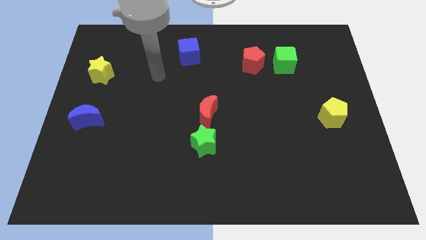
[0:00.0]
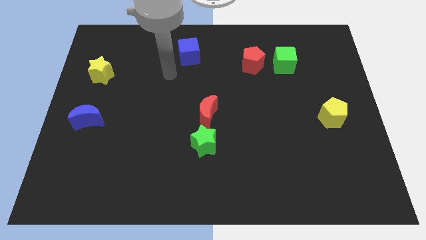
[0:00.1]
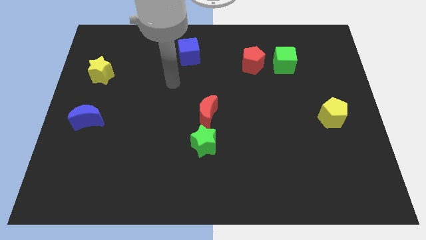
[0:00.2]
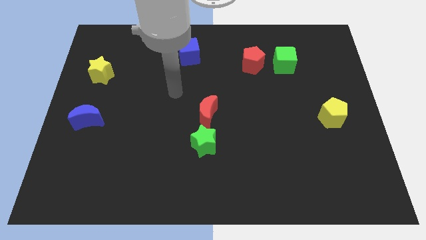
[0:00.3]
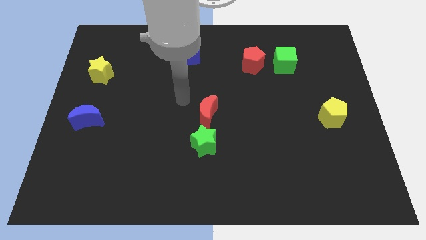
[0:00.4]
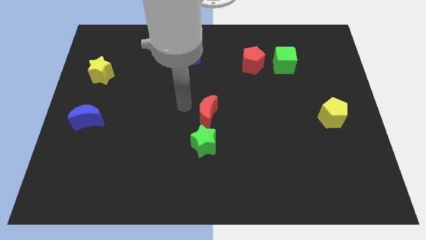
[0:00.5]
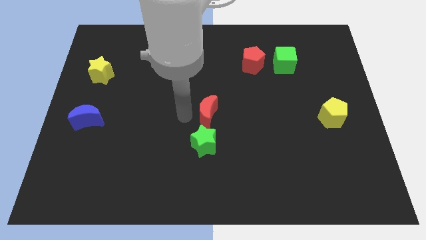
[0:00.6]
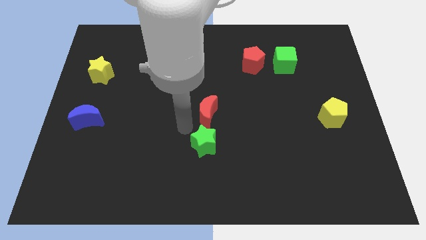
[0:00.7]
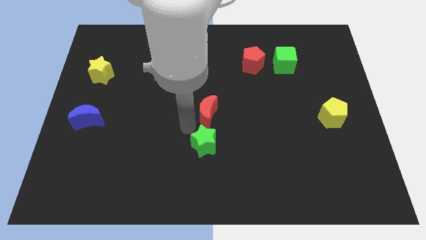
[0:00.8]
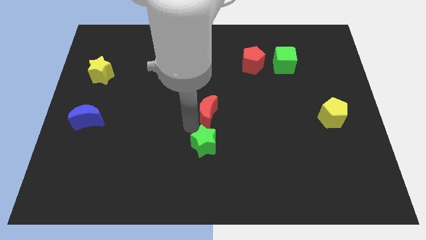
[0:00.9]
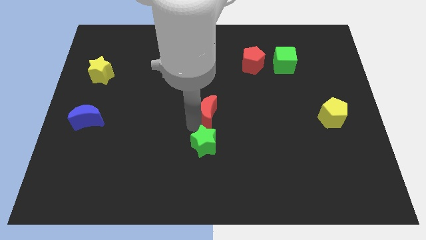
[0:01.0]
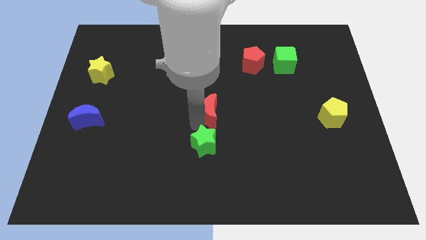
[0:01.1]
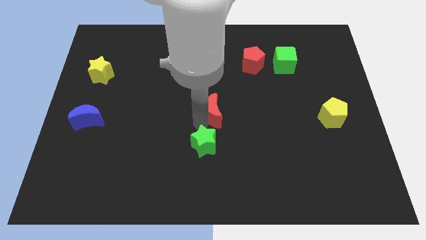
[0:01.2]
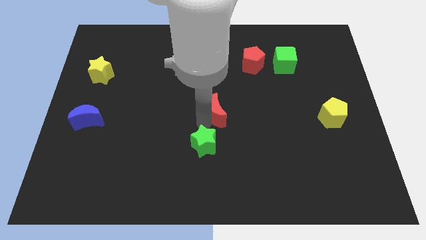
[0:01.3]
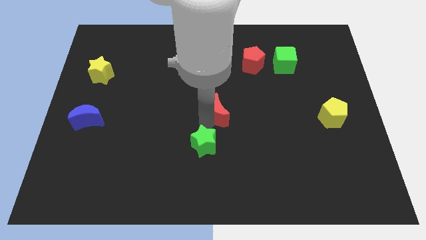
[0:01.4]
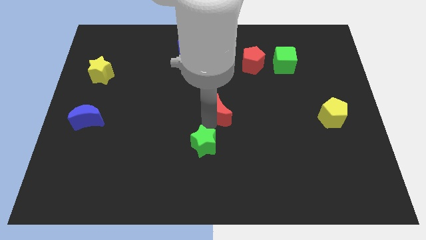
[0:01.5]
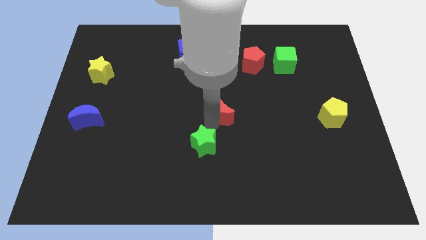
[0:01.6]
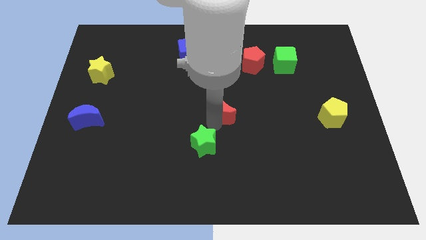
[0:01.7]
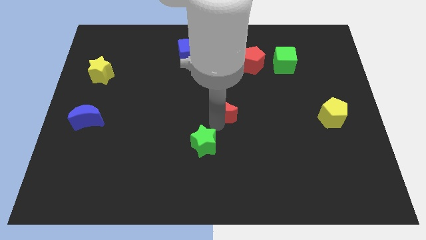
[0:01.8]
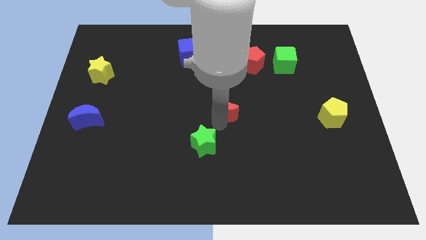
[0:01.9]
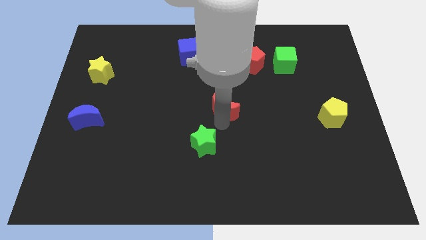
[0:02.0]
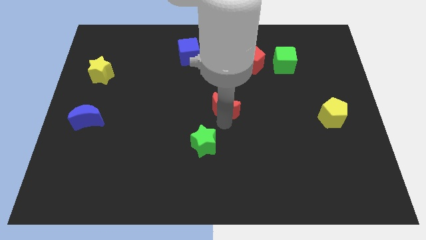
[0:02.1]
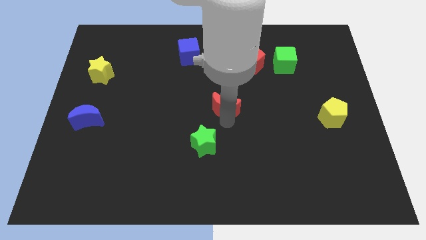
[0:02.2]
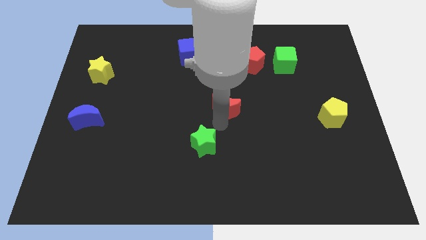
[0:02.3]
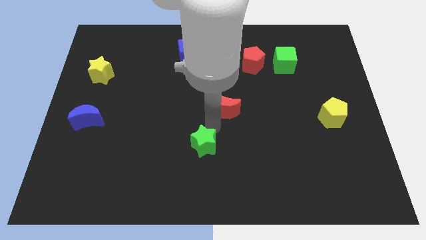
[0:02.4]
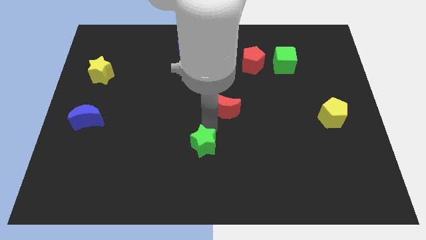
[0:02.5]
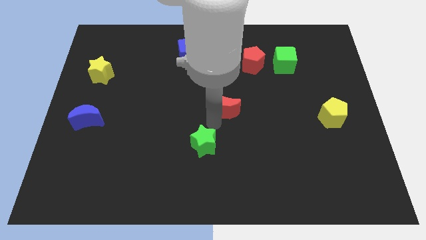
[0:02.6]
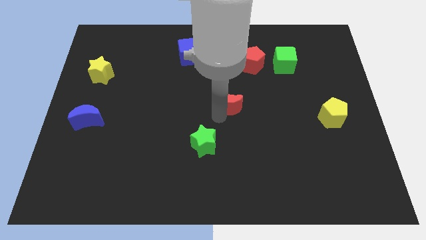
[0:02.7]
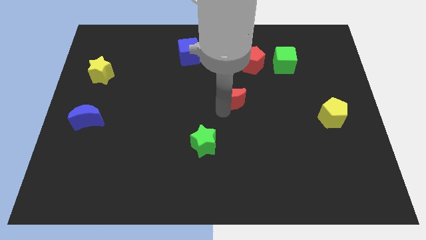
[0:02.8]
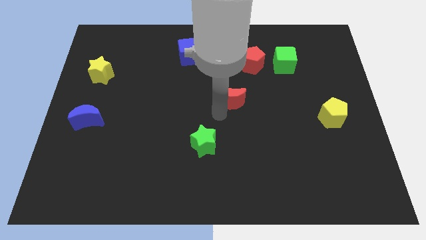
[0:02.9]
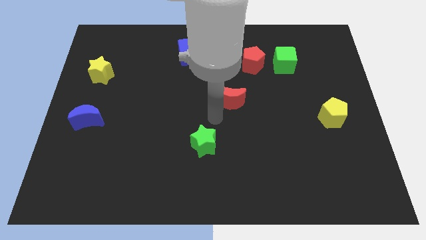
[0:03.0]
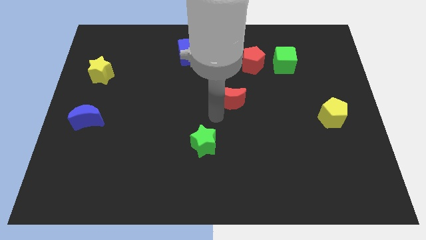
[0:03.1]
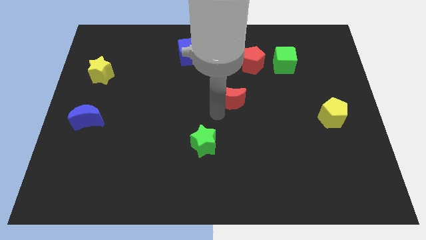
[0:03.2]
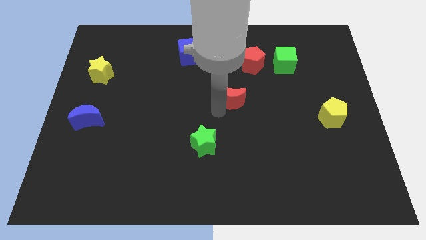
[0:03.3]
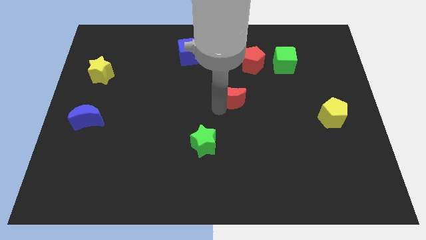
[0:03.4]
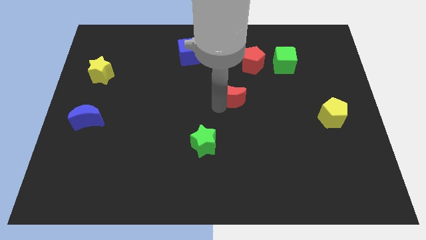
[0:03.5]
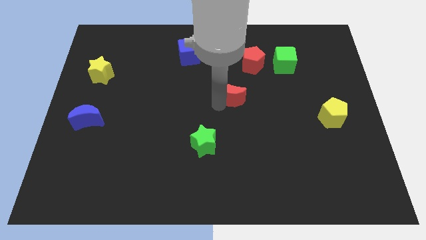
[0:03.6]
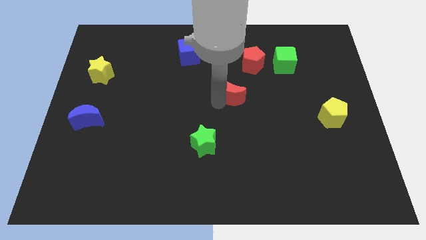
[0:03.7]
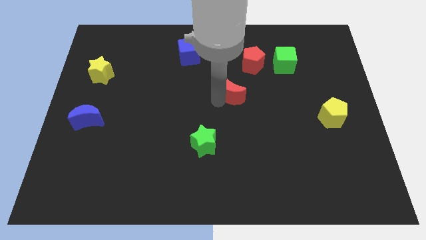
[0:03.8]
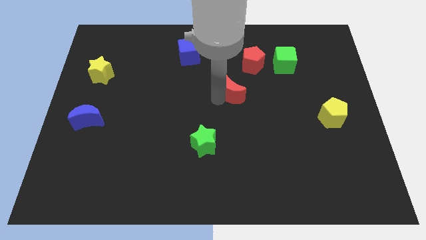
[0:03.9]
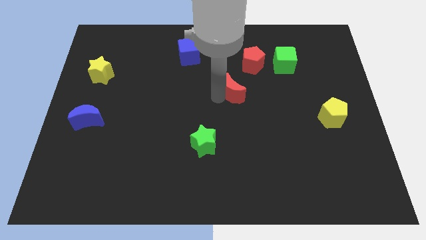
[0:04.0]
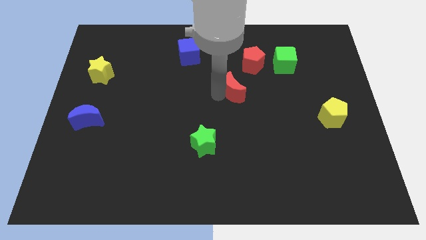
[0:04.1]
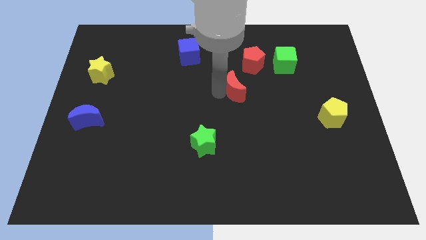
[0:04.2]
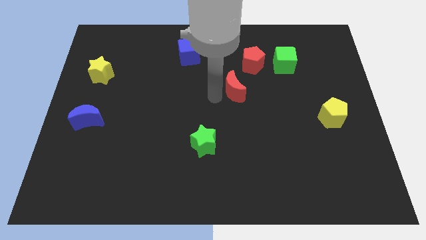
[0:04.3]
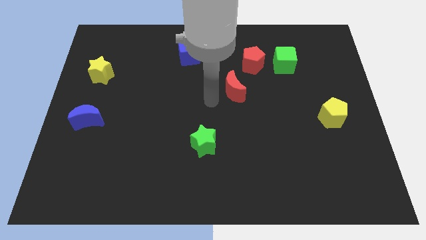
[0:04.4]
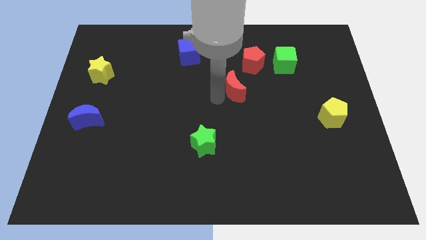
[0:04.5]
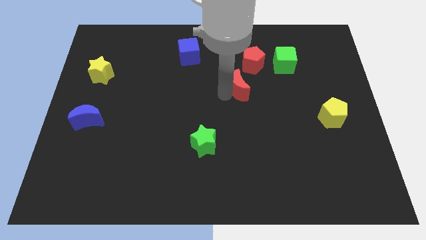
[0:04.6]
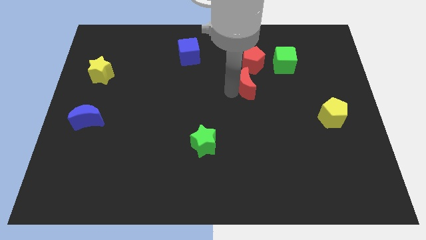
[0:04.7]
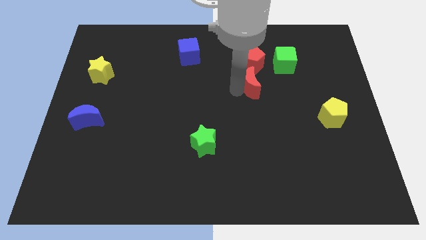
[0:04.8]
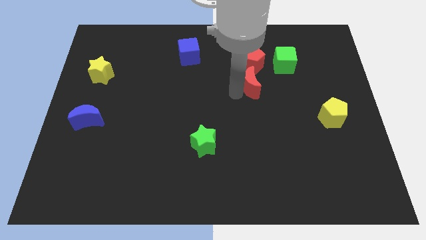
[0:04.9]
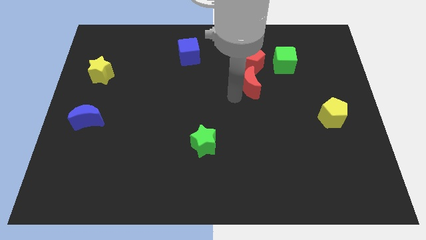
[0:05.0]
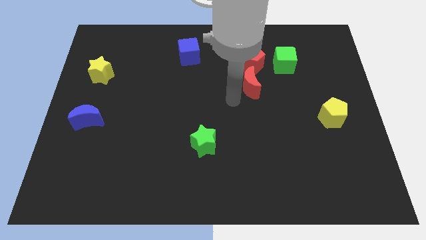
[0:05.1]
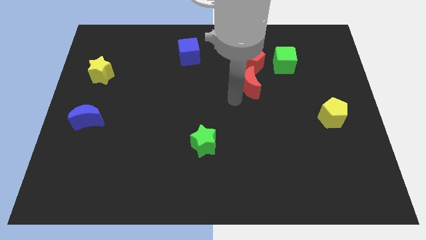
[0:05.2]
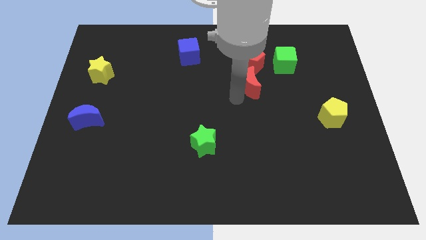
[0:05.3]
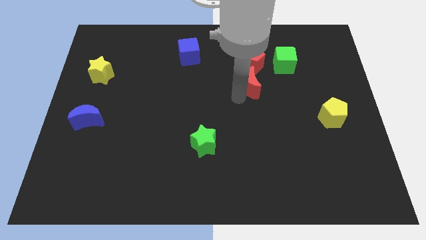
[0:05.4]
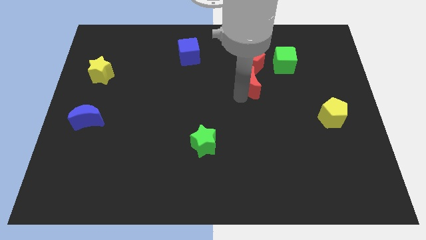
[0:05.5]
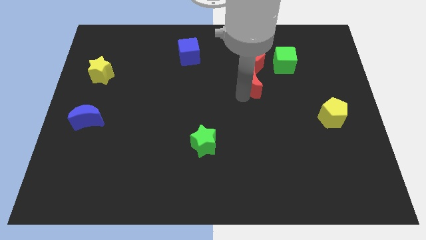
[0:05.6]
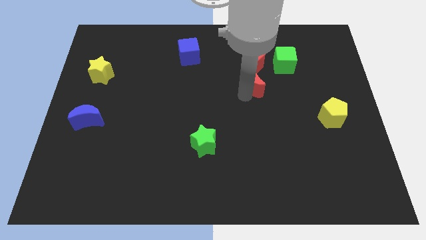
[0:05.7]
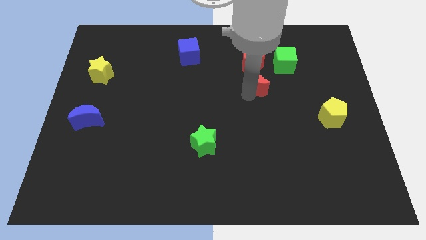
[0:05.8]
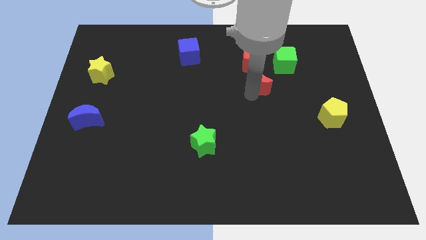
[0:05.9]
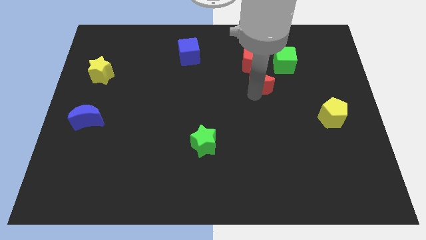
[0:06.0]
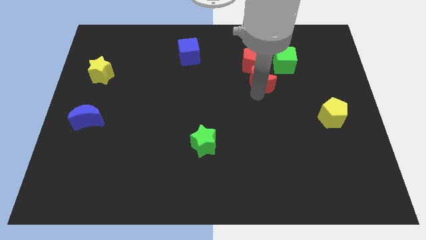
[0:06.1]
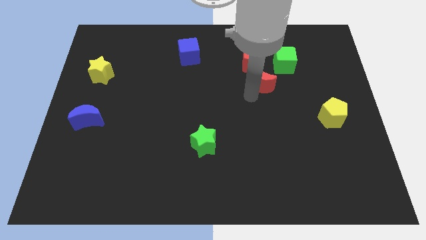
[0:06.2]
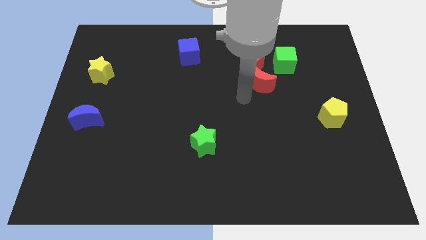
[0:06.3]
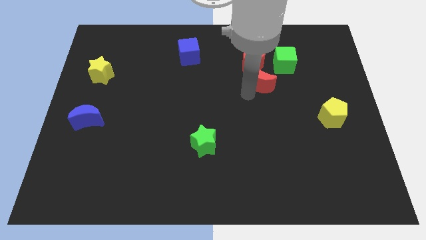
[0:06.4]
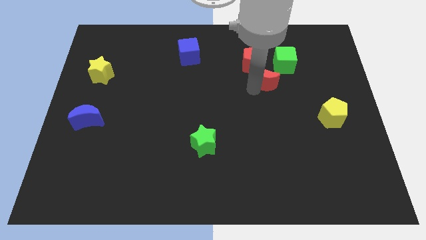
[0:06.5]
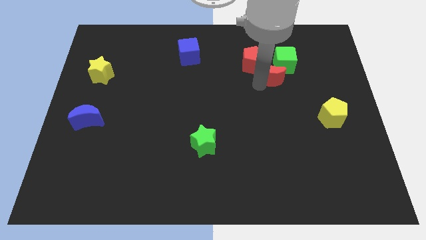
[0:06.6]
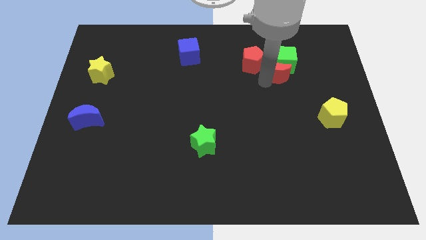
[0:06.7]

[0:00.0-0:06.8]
move the red moon to the green cube
